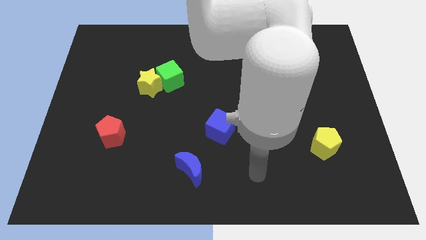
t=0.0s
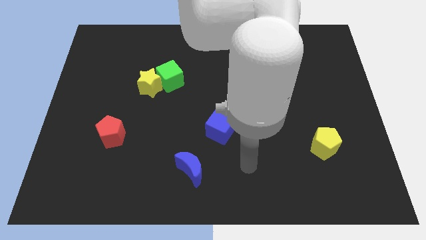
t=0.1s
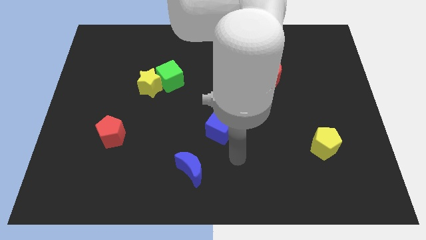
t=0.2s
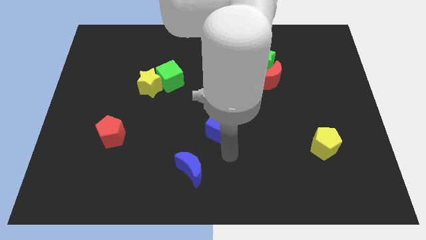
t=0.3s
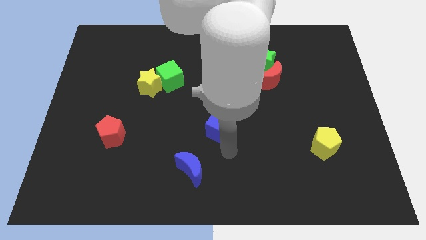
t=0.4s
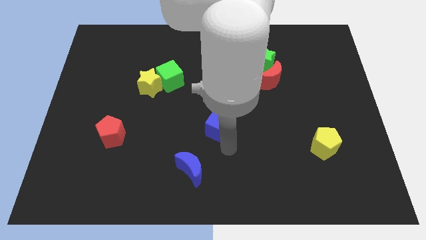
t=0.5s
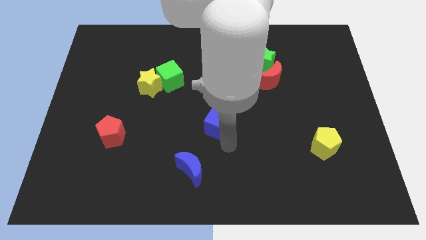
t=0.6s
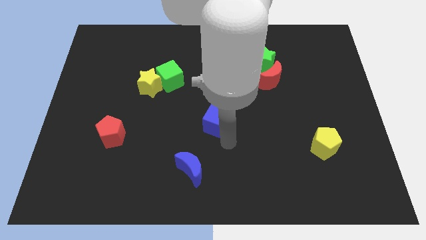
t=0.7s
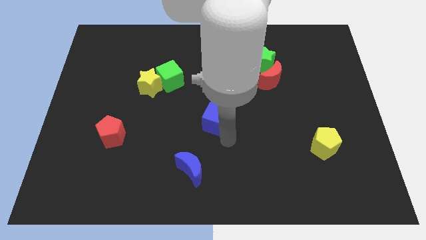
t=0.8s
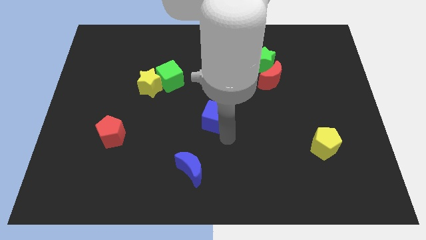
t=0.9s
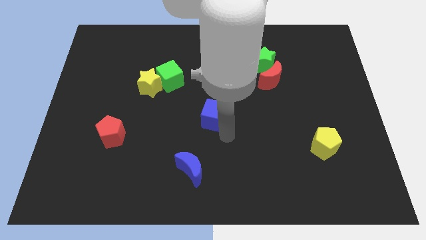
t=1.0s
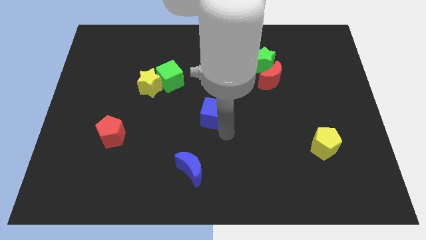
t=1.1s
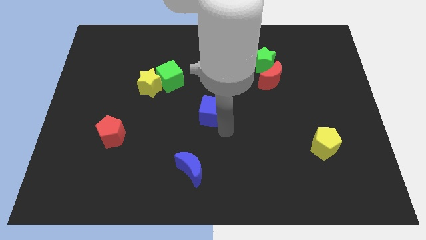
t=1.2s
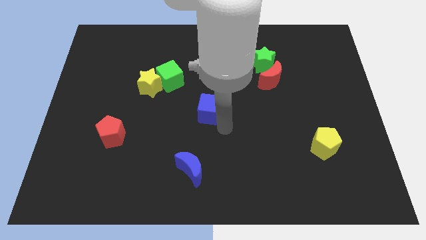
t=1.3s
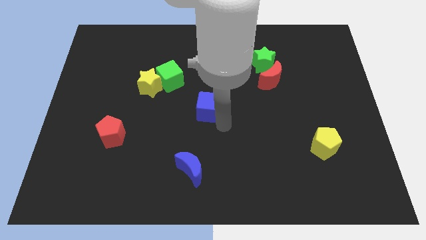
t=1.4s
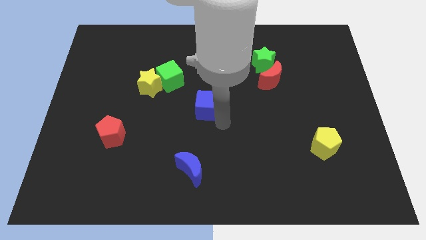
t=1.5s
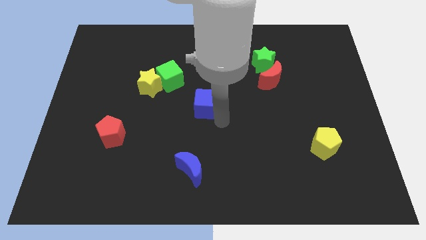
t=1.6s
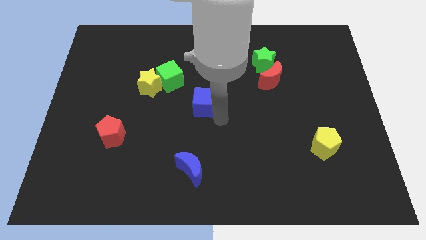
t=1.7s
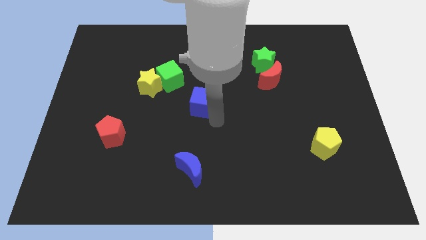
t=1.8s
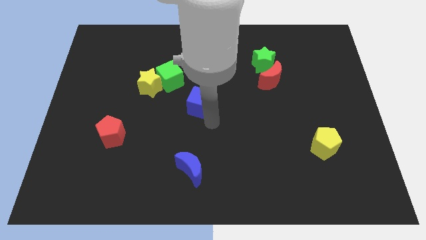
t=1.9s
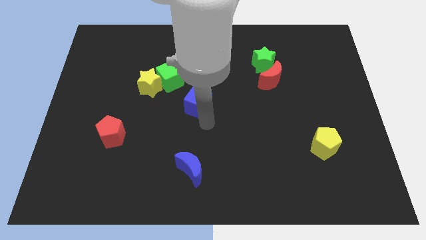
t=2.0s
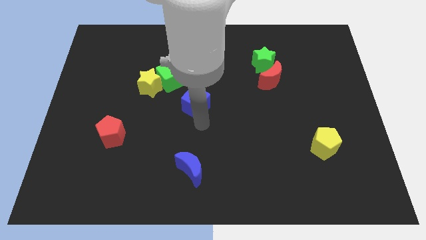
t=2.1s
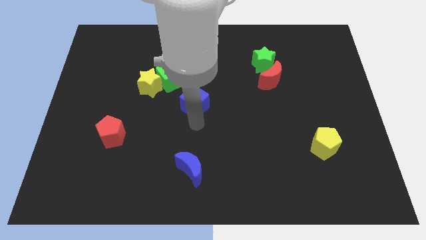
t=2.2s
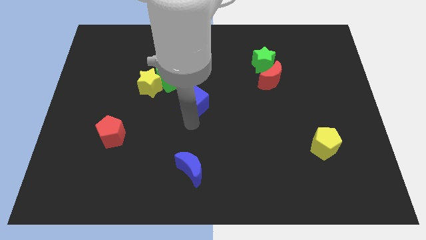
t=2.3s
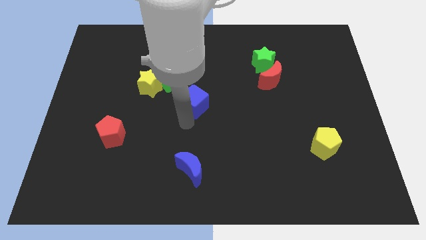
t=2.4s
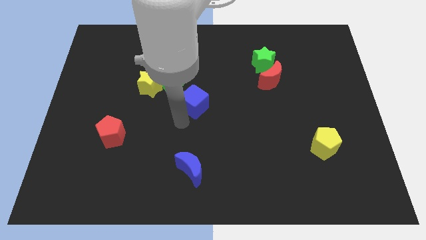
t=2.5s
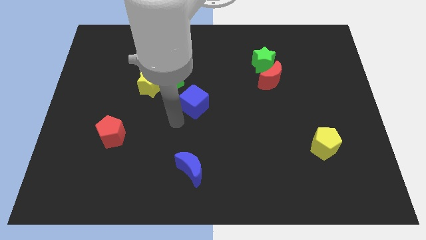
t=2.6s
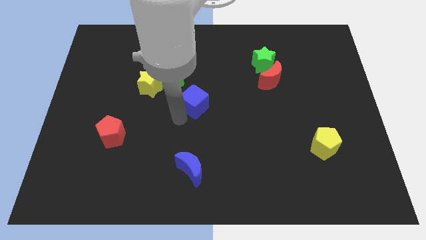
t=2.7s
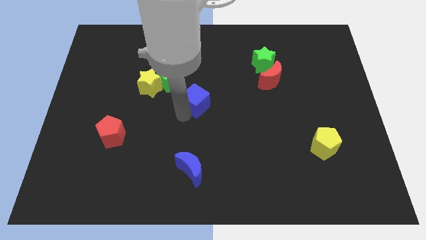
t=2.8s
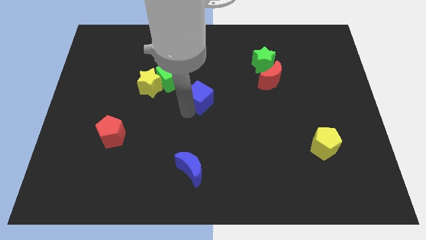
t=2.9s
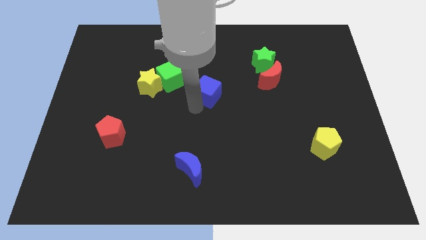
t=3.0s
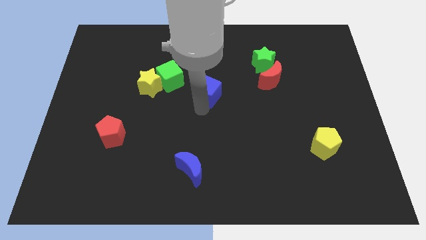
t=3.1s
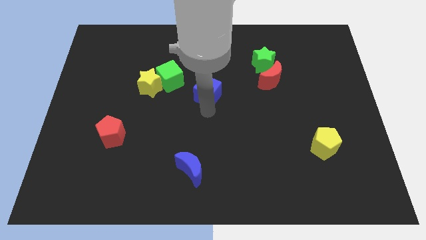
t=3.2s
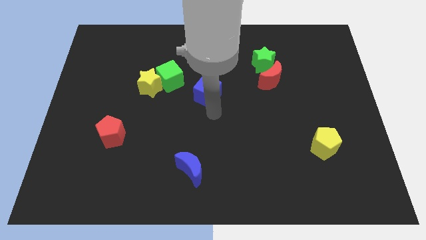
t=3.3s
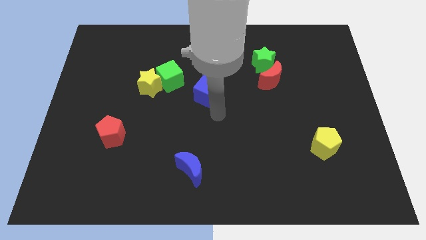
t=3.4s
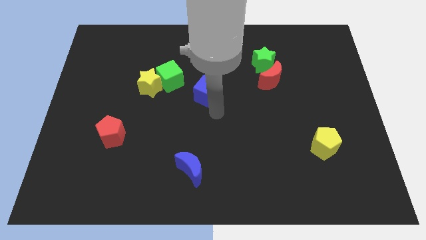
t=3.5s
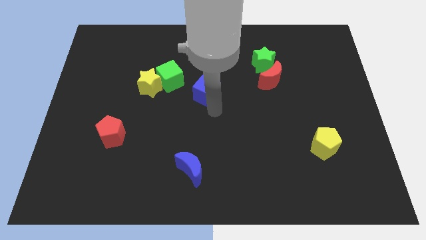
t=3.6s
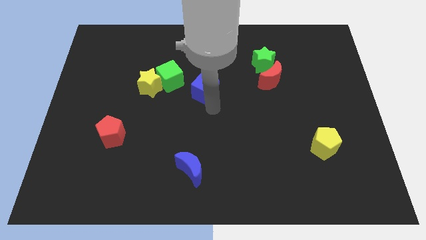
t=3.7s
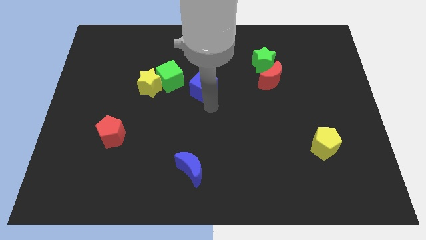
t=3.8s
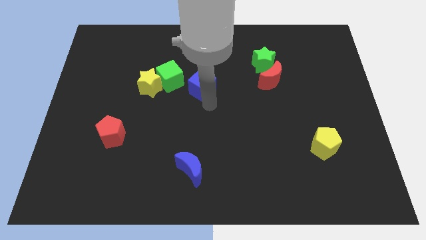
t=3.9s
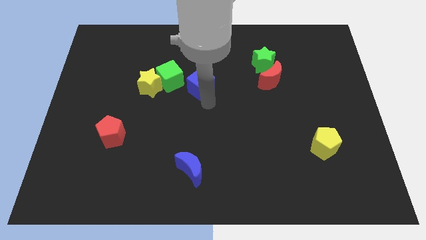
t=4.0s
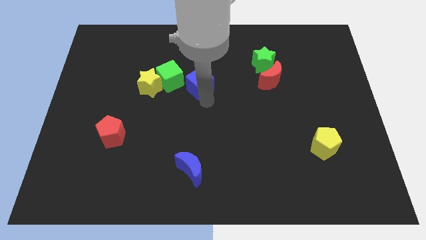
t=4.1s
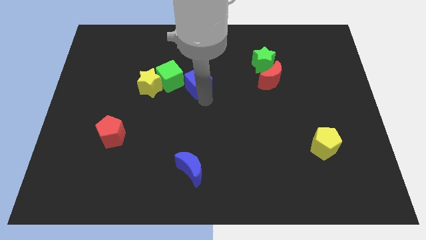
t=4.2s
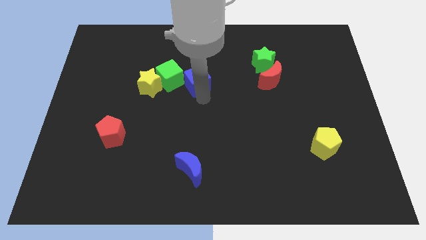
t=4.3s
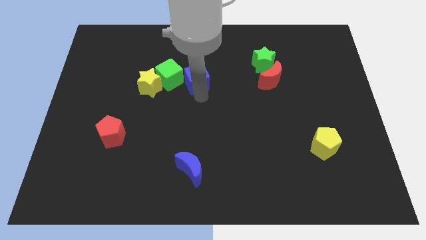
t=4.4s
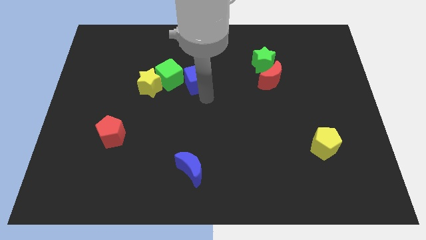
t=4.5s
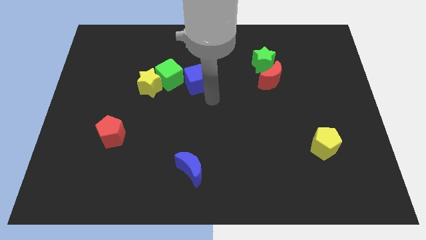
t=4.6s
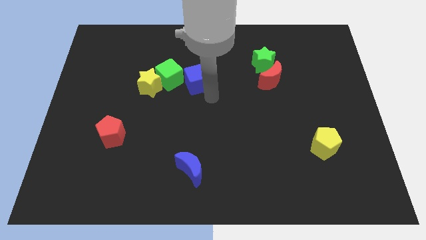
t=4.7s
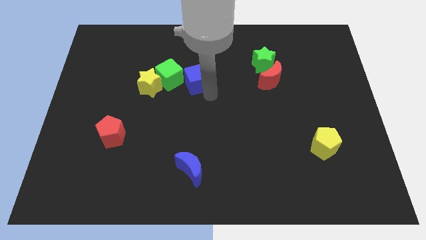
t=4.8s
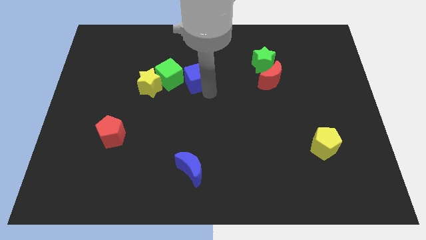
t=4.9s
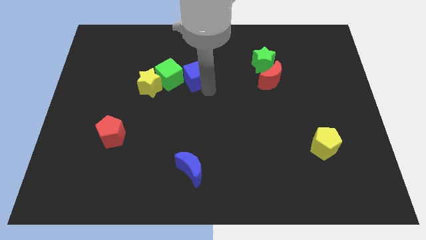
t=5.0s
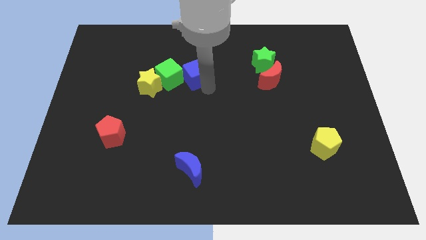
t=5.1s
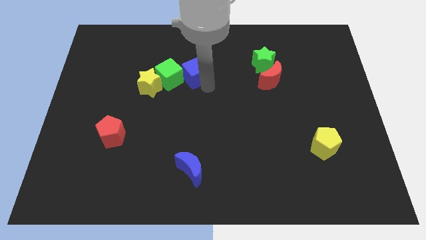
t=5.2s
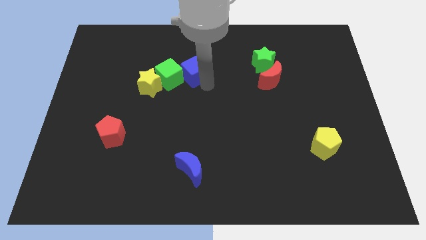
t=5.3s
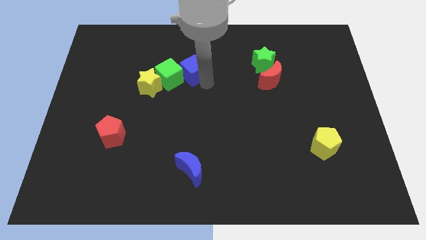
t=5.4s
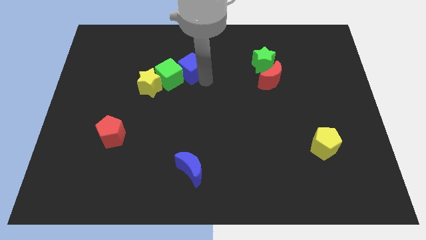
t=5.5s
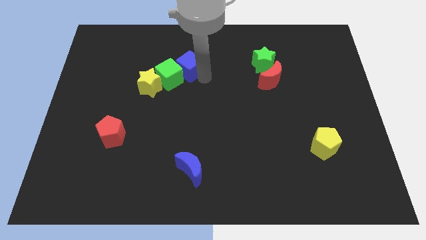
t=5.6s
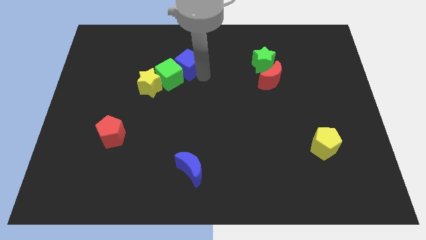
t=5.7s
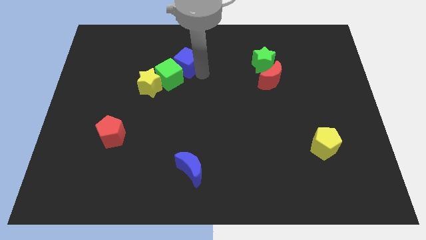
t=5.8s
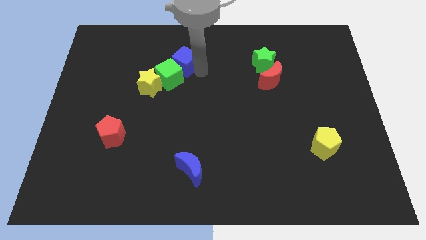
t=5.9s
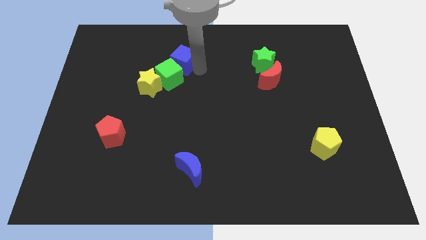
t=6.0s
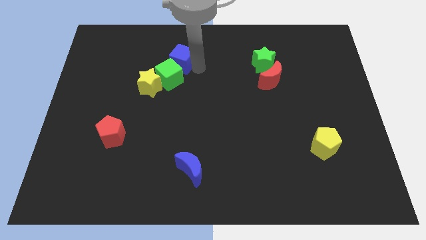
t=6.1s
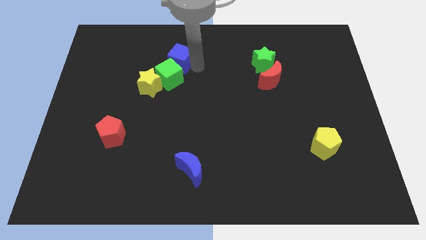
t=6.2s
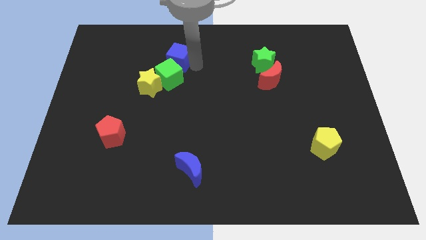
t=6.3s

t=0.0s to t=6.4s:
move the blue cube up and then left

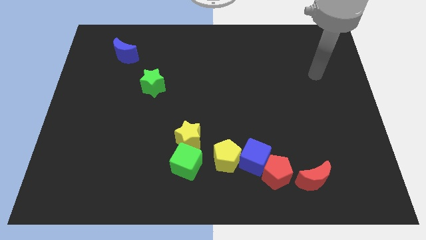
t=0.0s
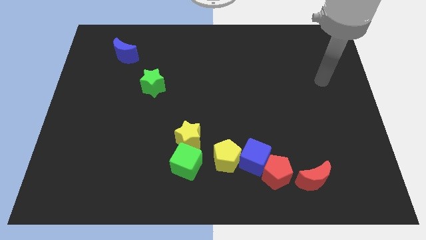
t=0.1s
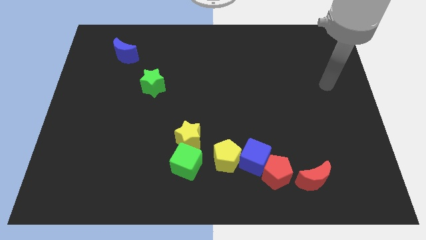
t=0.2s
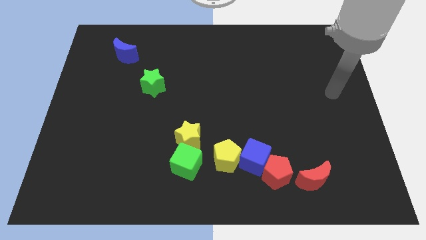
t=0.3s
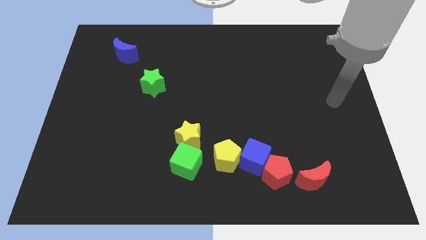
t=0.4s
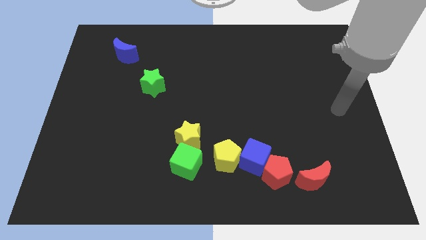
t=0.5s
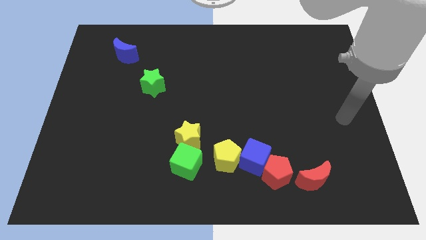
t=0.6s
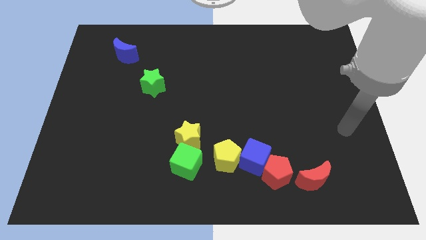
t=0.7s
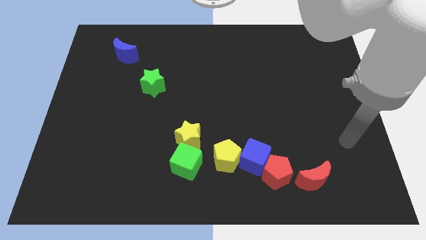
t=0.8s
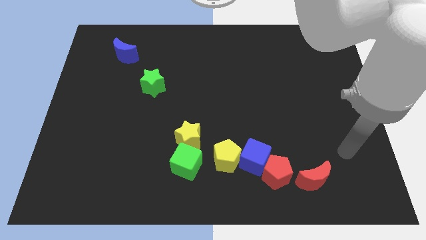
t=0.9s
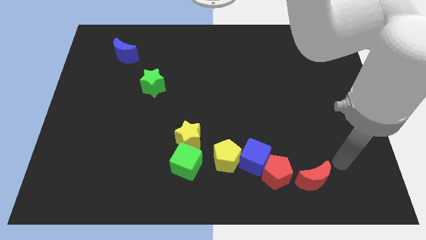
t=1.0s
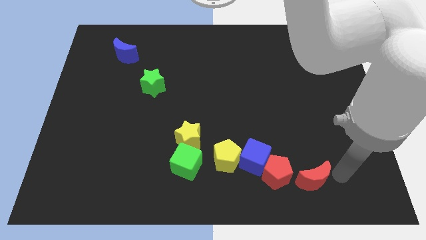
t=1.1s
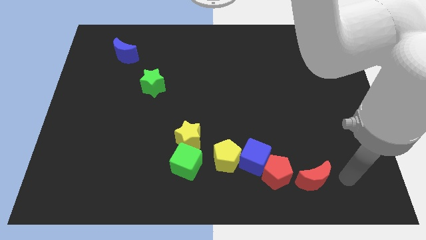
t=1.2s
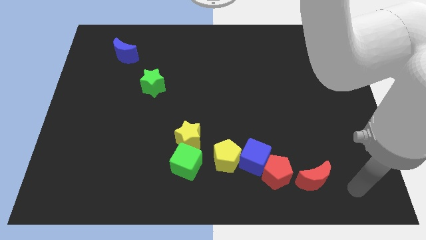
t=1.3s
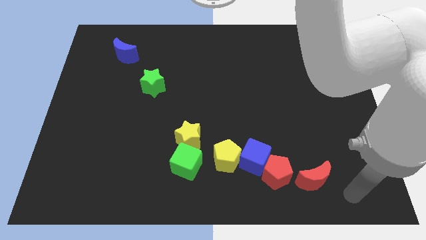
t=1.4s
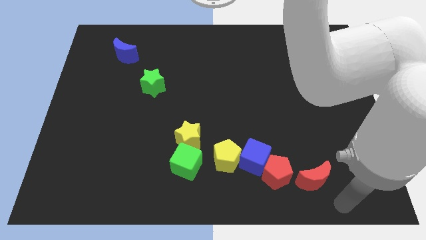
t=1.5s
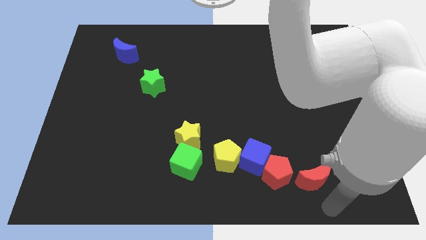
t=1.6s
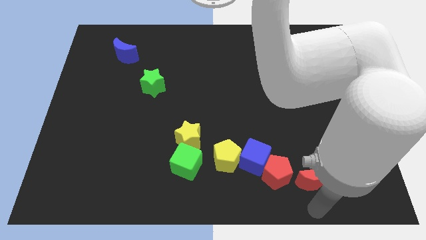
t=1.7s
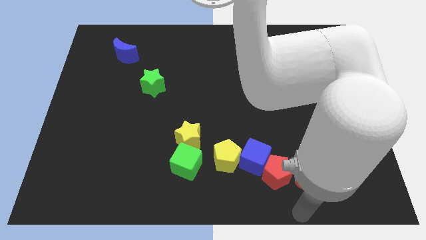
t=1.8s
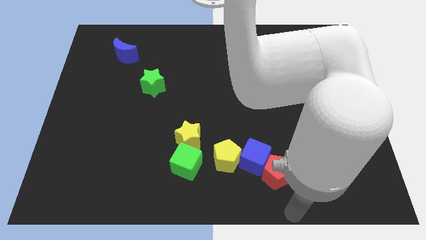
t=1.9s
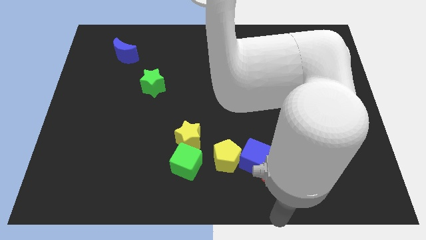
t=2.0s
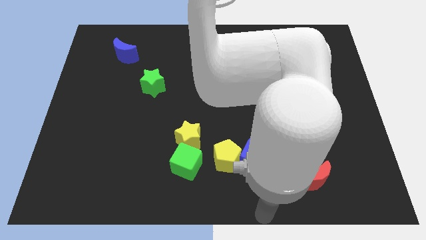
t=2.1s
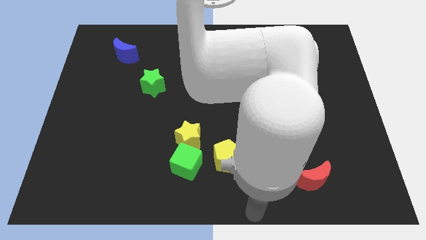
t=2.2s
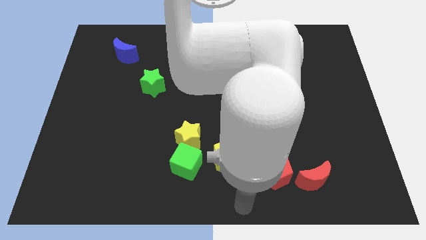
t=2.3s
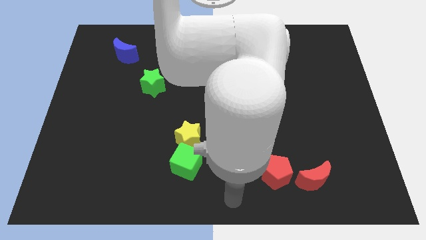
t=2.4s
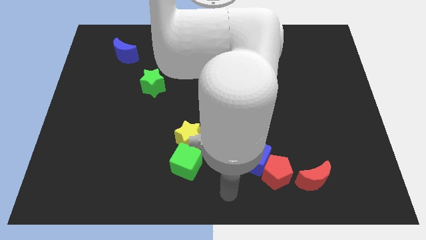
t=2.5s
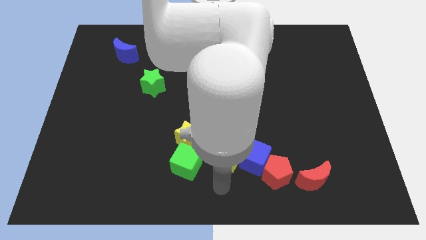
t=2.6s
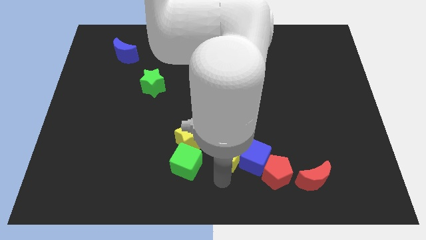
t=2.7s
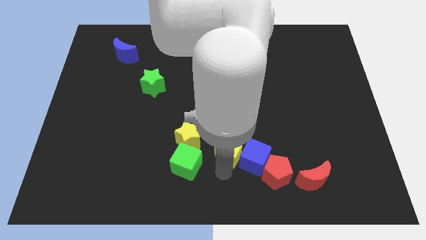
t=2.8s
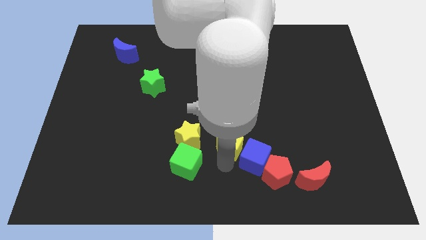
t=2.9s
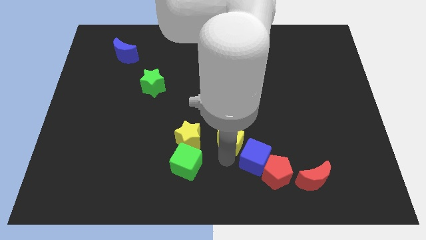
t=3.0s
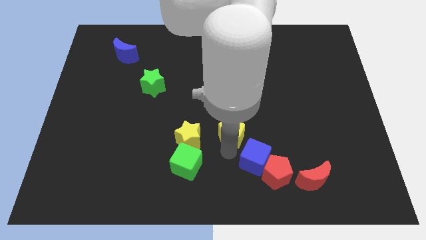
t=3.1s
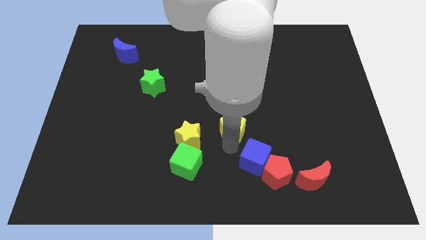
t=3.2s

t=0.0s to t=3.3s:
slightly push the yellow pentagon up
